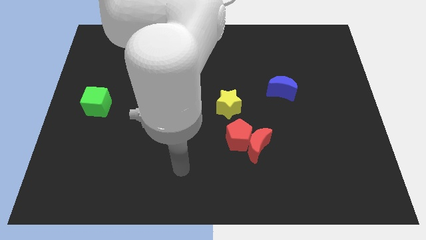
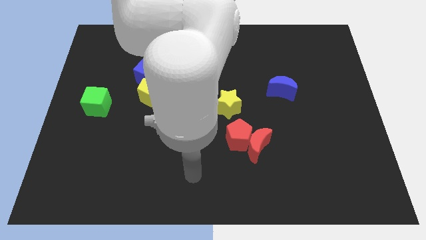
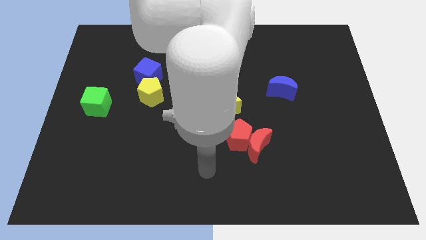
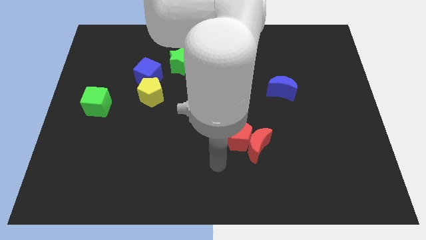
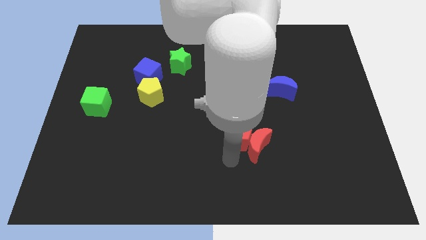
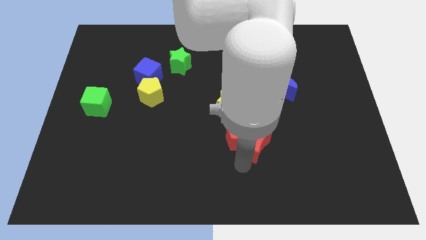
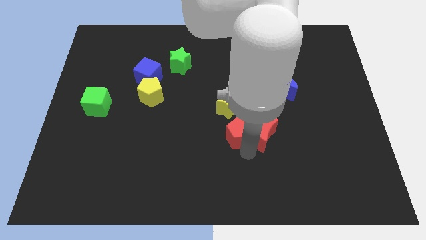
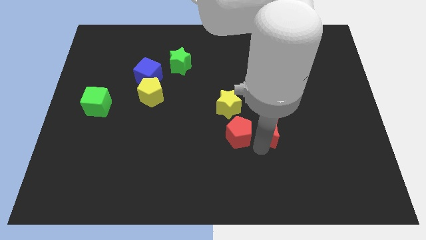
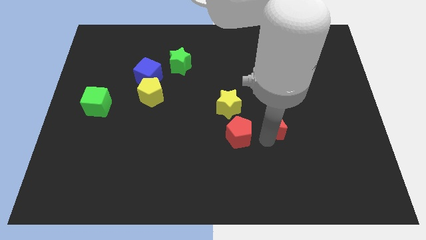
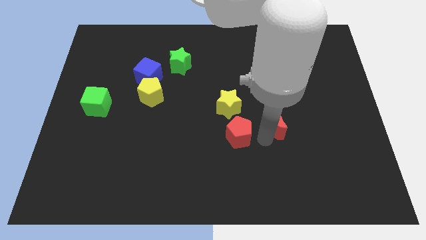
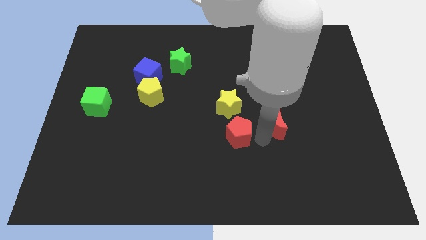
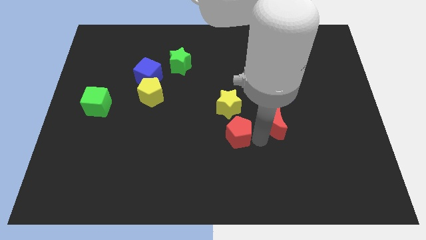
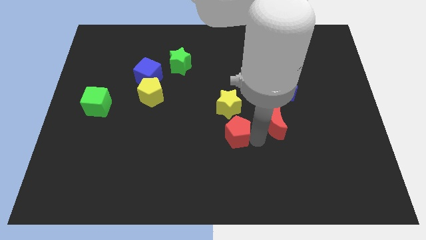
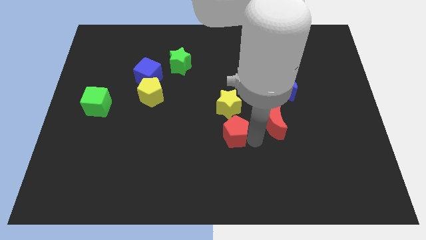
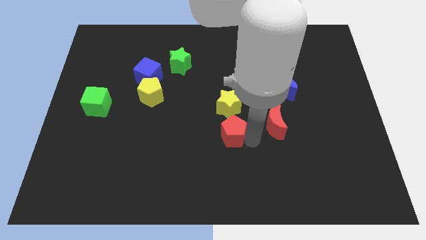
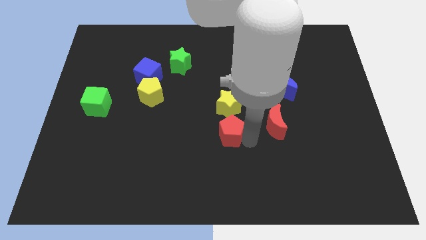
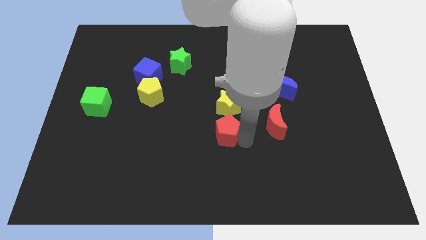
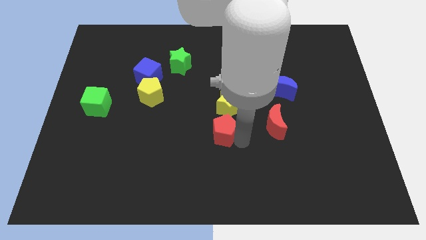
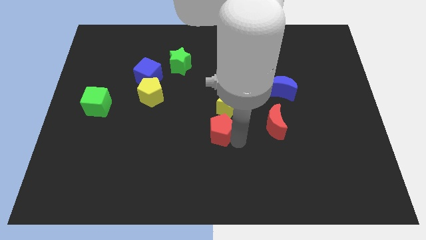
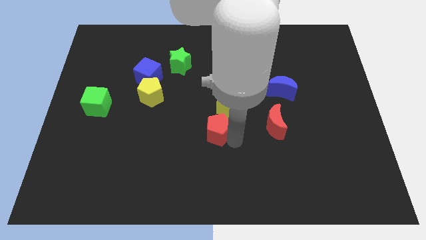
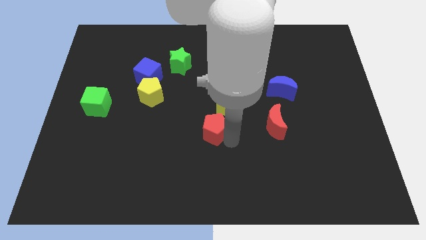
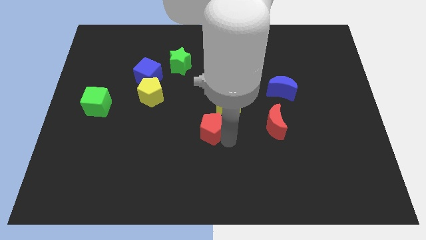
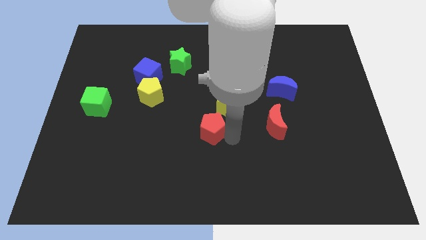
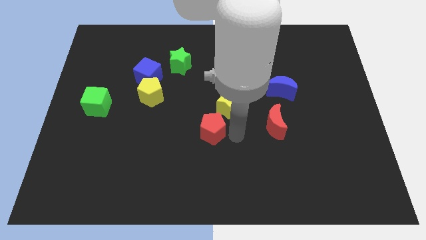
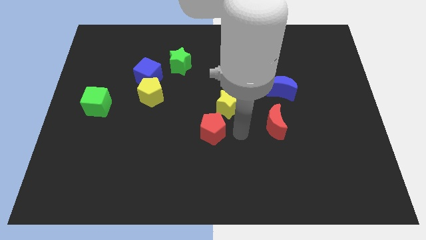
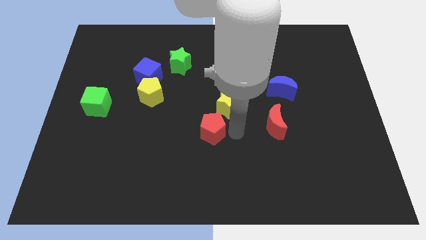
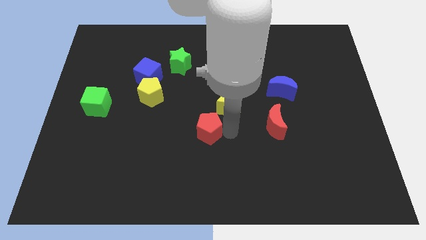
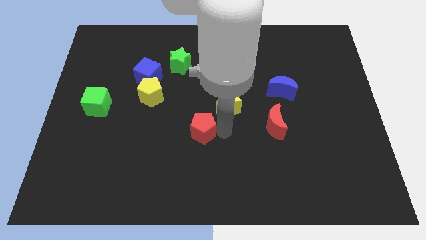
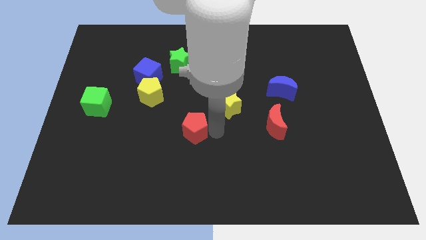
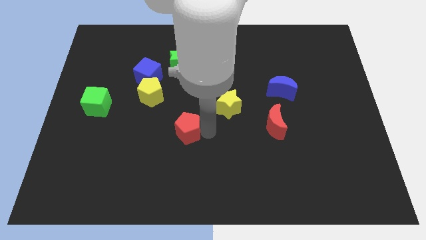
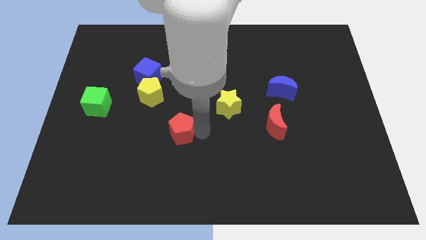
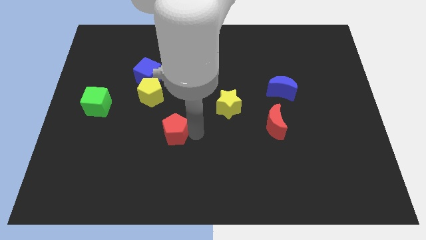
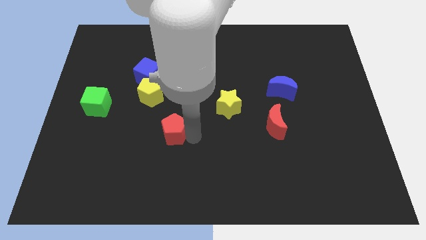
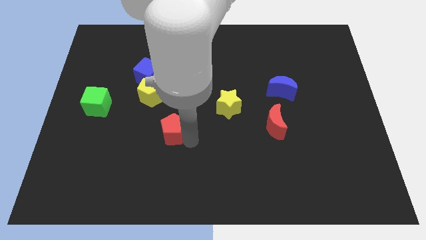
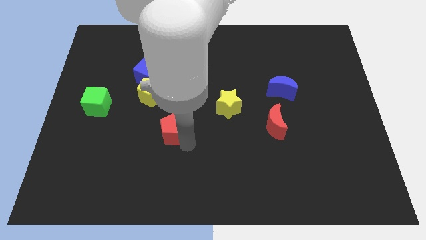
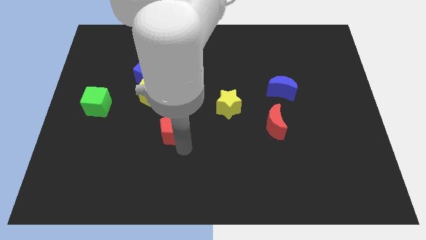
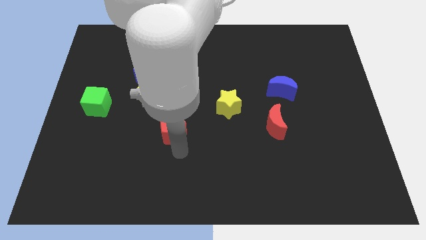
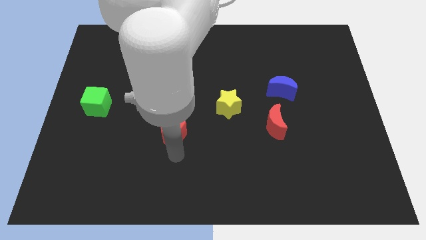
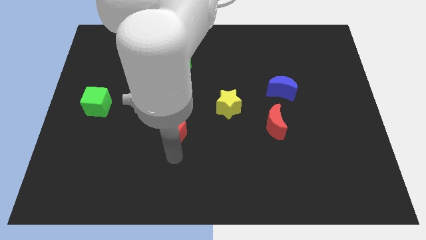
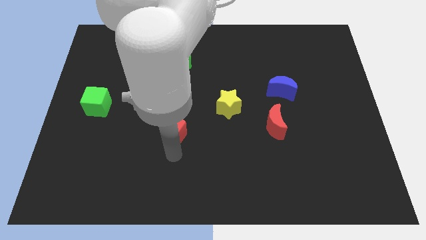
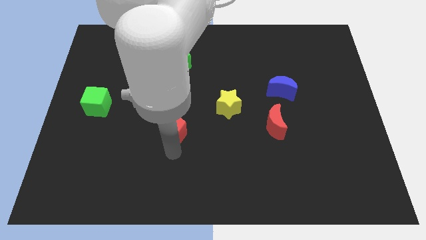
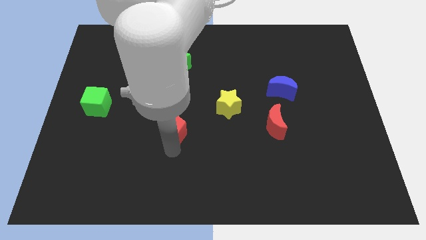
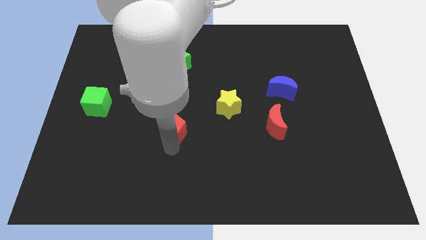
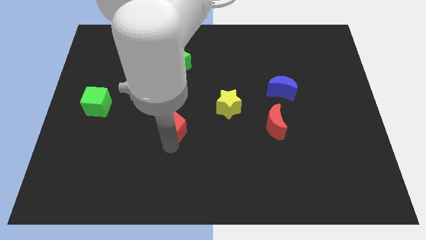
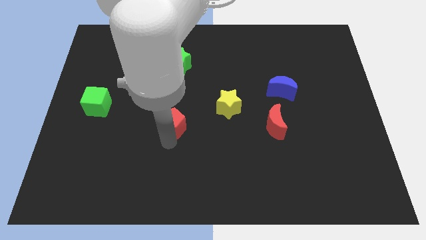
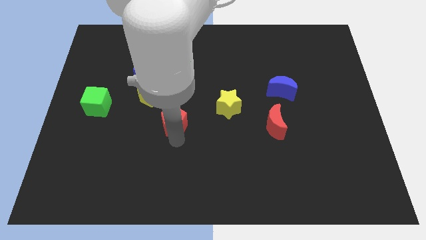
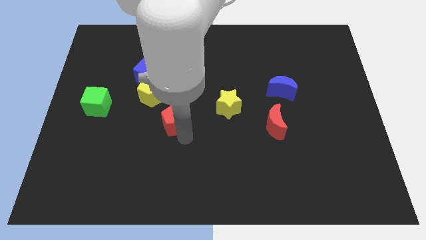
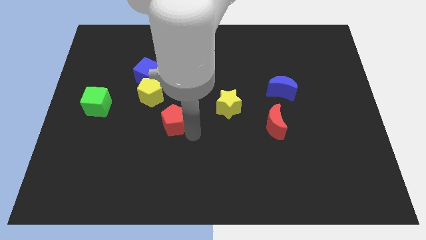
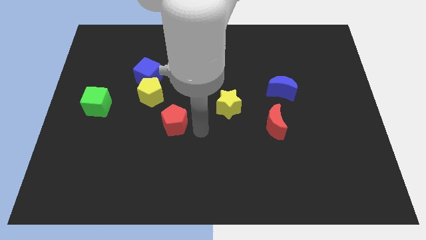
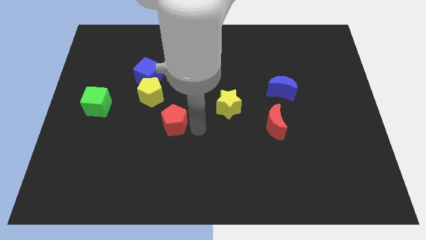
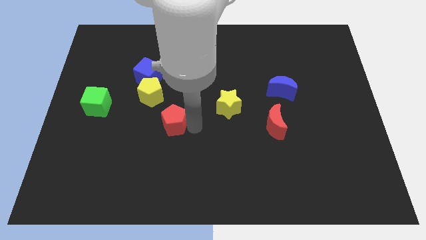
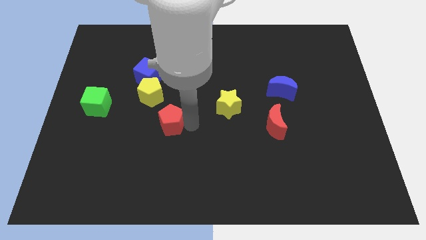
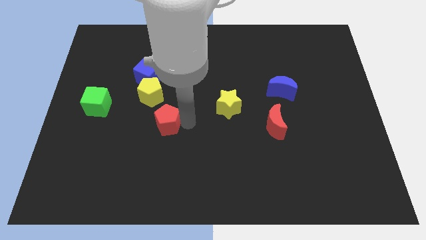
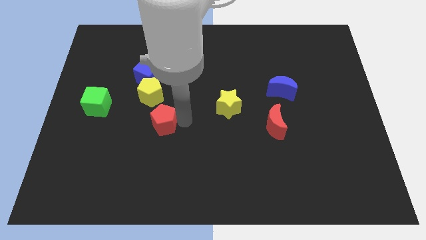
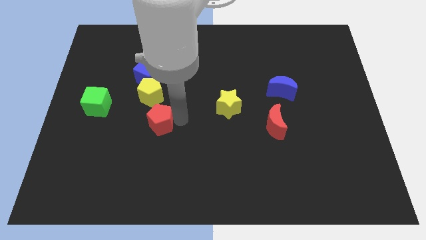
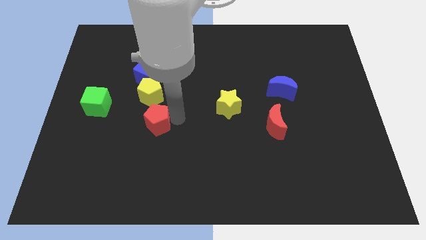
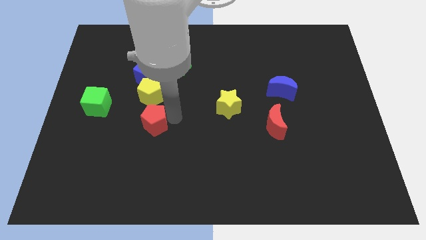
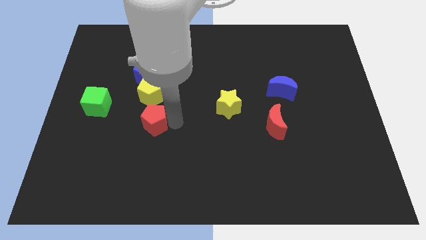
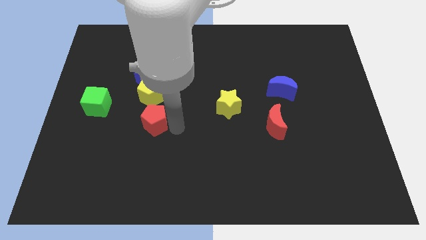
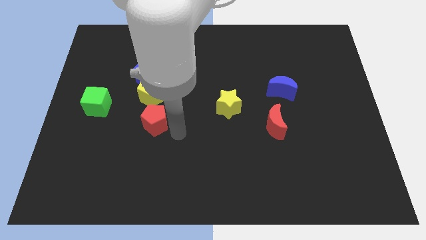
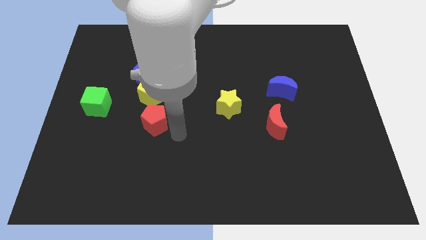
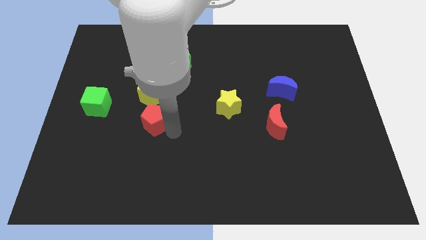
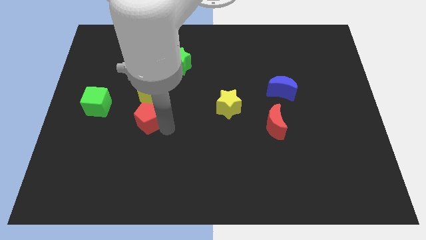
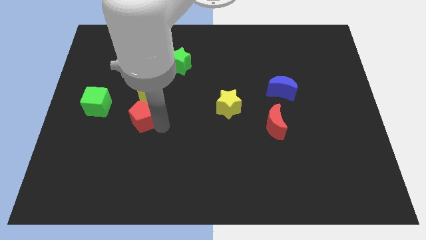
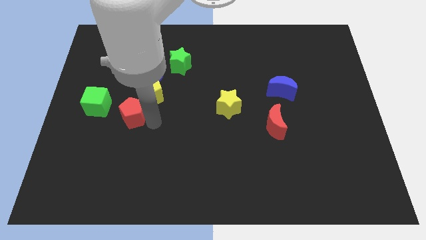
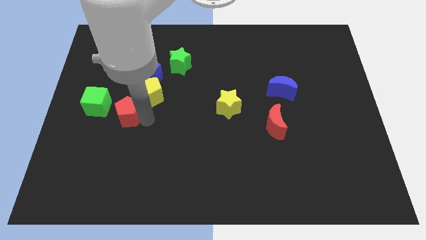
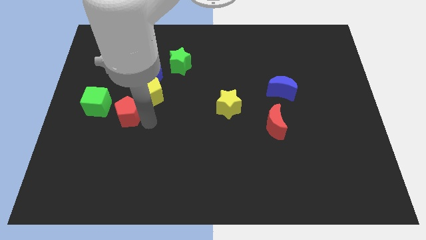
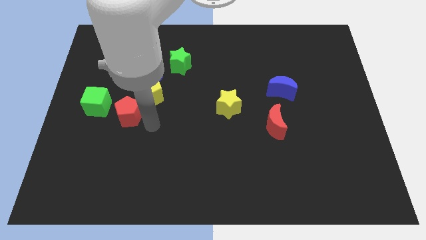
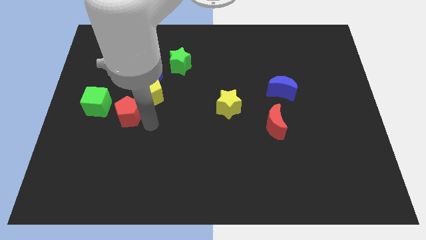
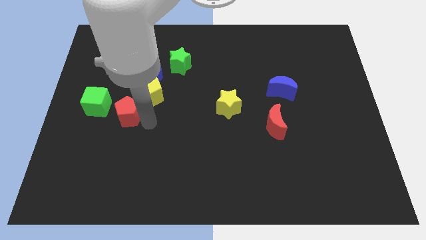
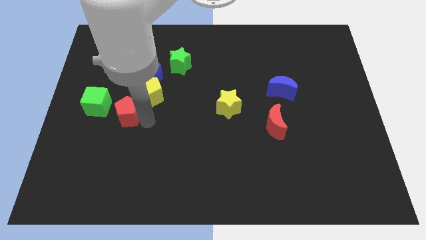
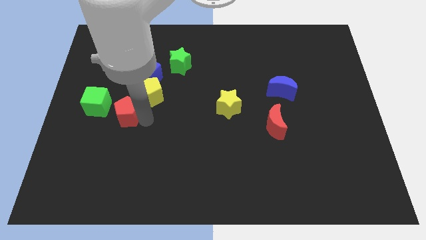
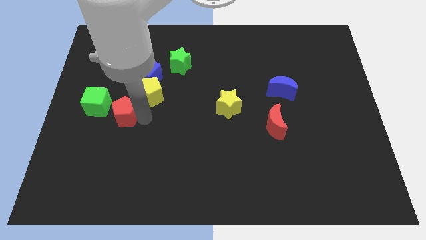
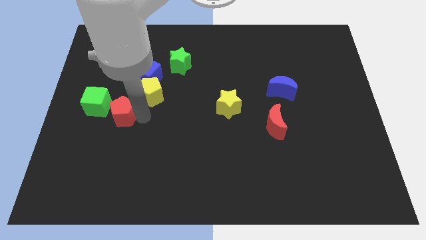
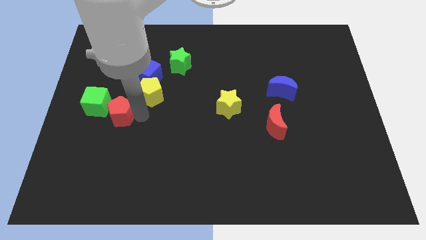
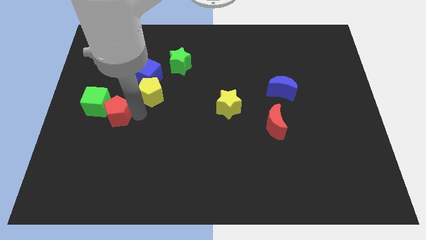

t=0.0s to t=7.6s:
push the red pentagon close to the green cube
